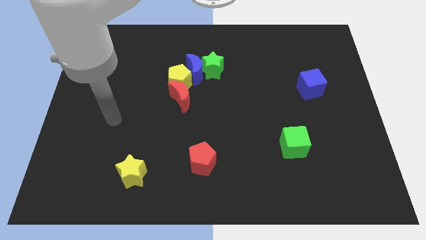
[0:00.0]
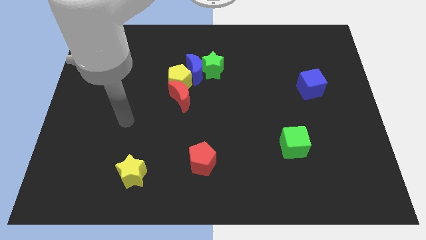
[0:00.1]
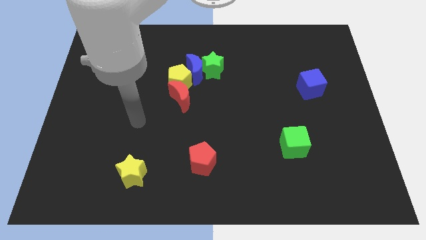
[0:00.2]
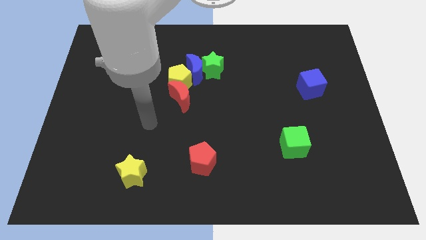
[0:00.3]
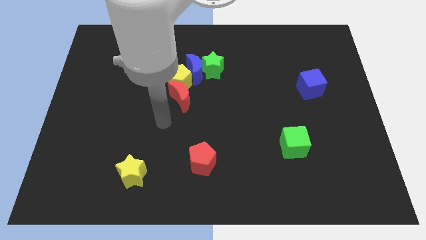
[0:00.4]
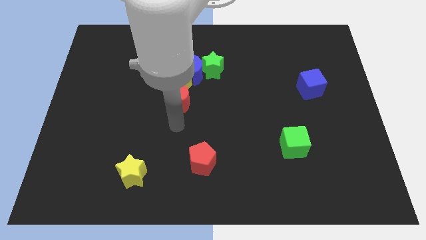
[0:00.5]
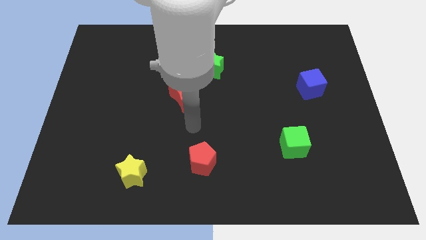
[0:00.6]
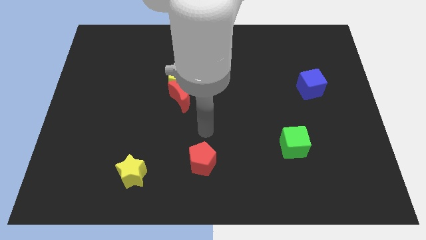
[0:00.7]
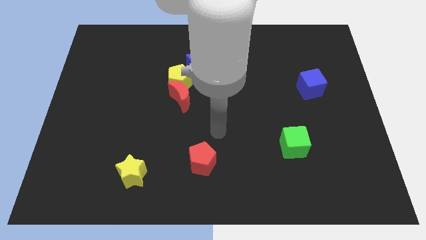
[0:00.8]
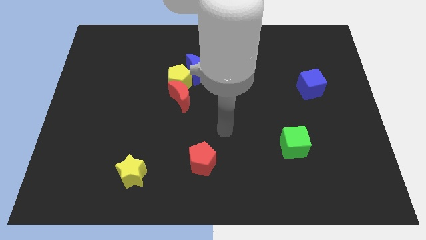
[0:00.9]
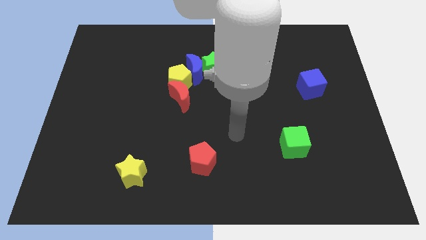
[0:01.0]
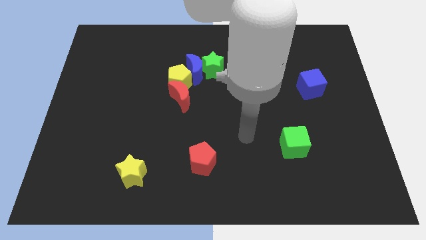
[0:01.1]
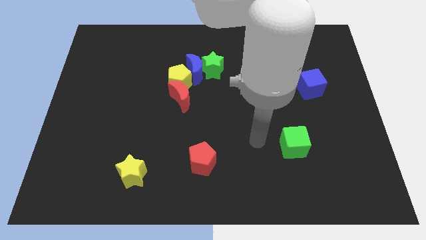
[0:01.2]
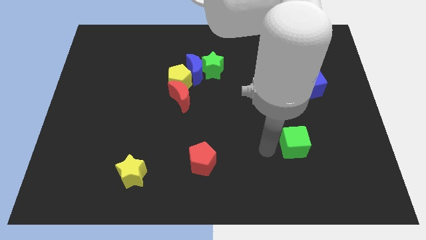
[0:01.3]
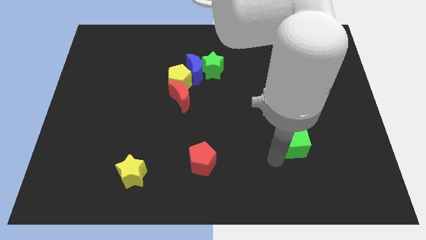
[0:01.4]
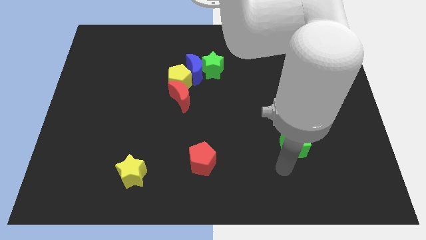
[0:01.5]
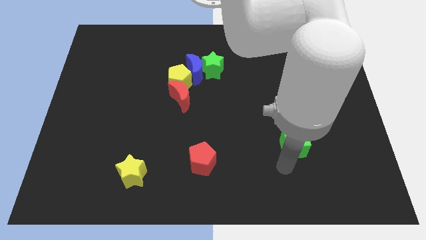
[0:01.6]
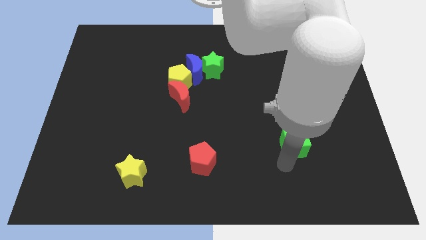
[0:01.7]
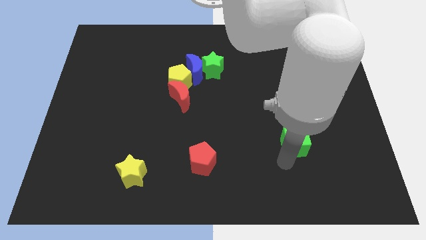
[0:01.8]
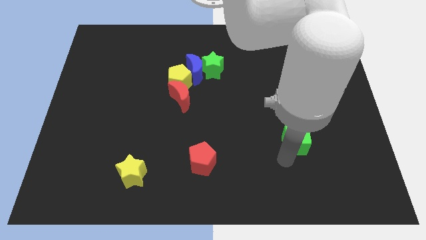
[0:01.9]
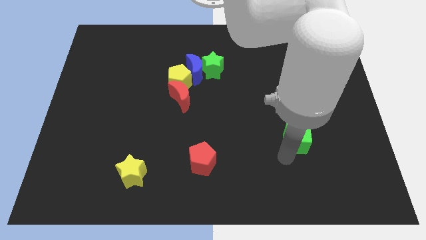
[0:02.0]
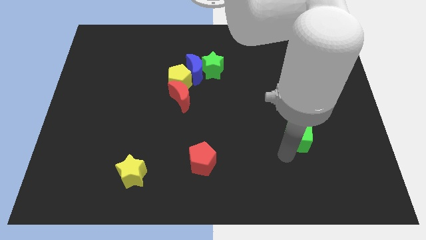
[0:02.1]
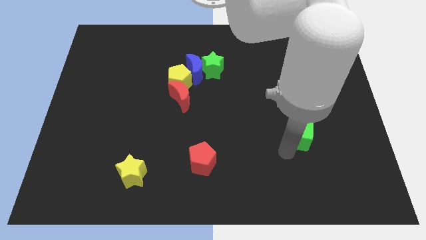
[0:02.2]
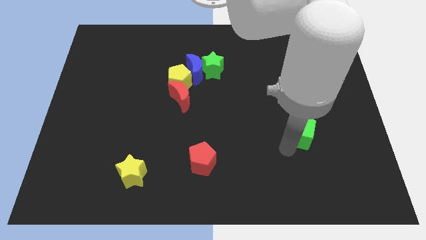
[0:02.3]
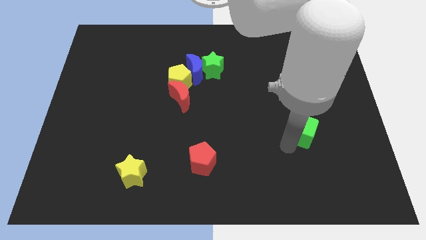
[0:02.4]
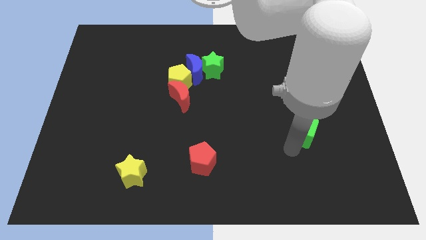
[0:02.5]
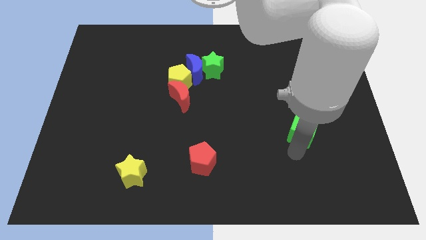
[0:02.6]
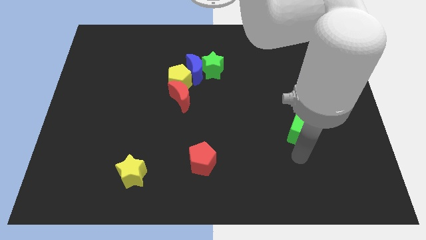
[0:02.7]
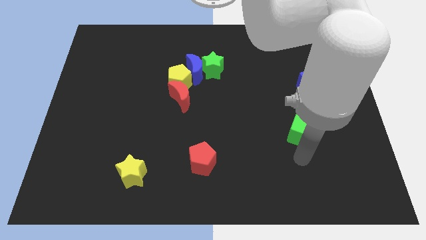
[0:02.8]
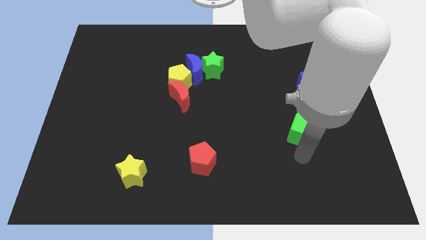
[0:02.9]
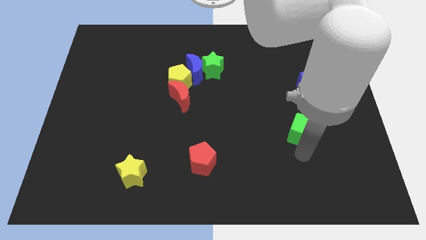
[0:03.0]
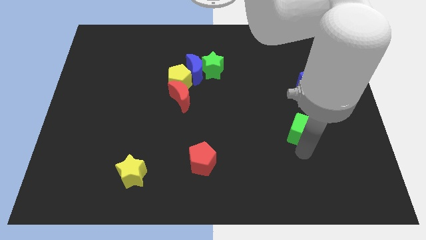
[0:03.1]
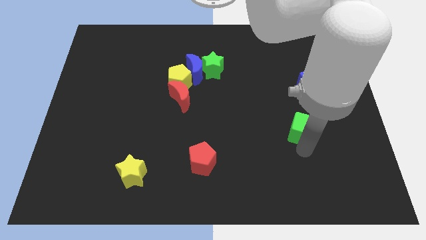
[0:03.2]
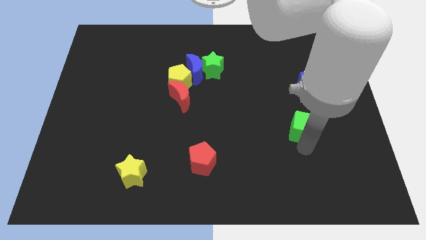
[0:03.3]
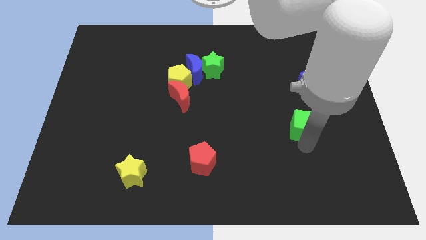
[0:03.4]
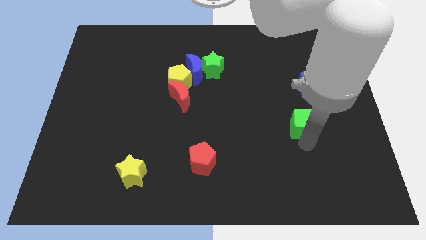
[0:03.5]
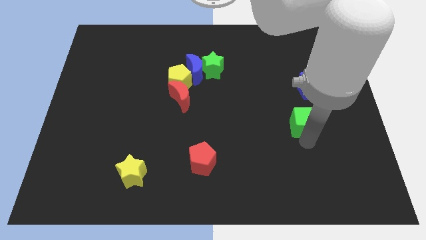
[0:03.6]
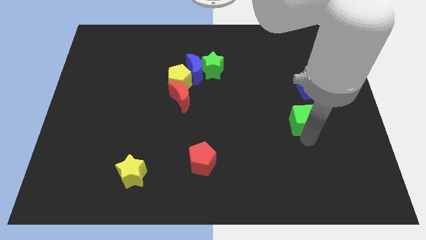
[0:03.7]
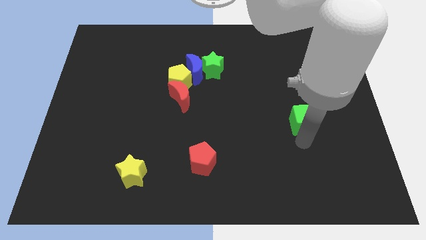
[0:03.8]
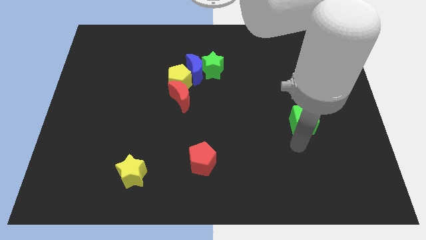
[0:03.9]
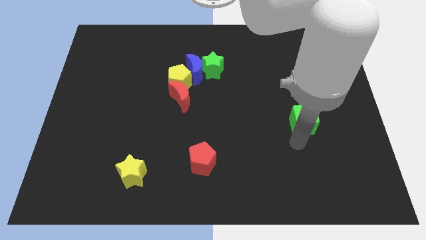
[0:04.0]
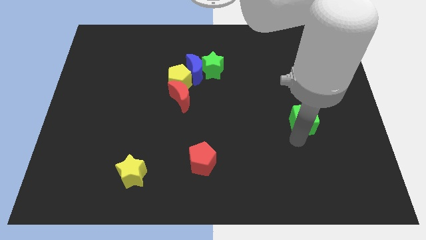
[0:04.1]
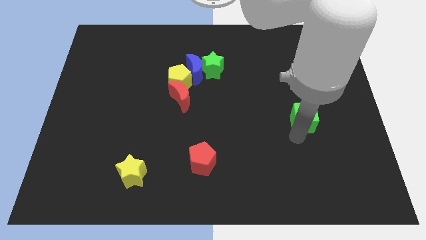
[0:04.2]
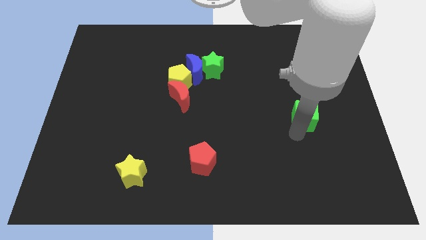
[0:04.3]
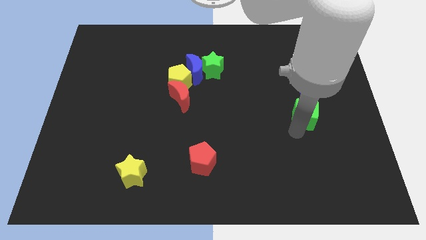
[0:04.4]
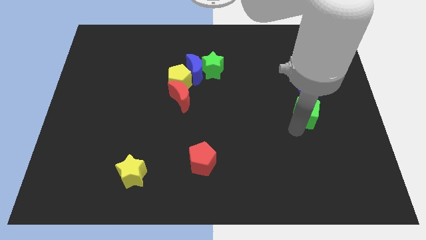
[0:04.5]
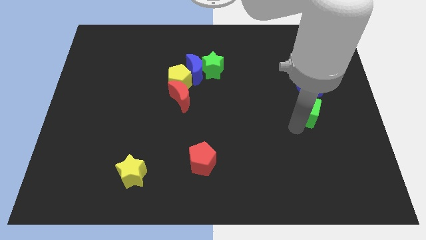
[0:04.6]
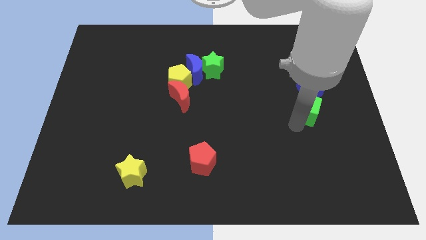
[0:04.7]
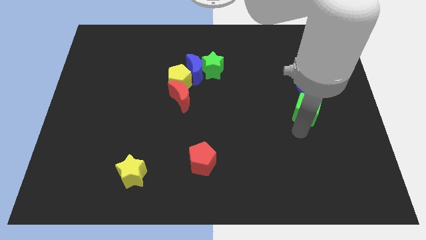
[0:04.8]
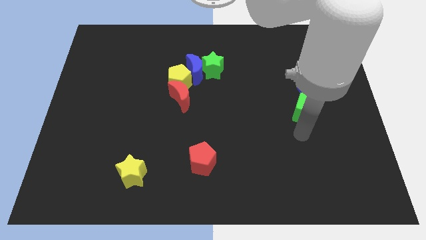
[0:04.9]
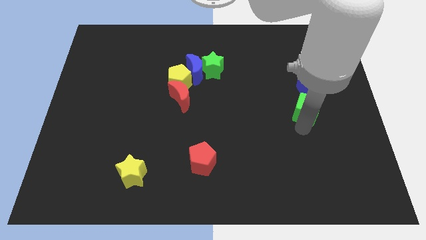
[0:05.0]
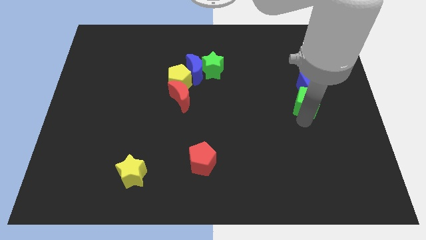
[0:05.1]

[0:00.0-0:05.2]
move the green cube towards the blue cube

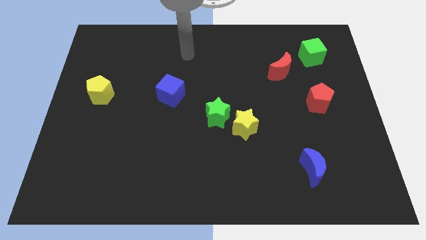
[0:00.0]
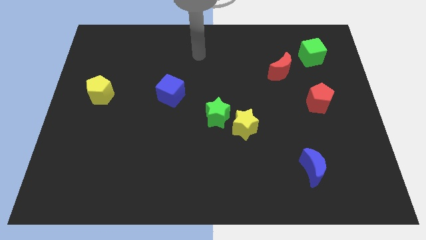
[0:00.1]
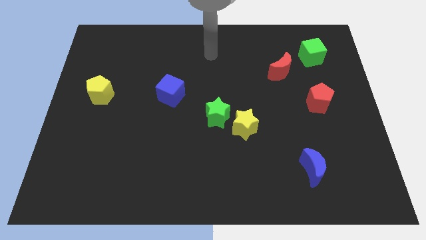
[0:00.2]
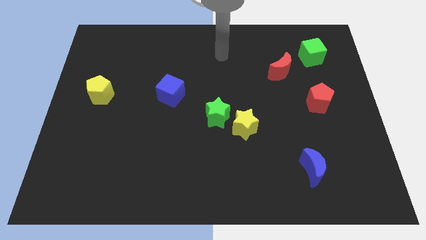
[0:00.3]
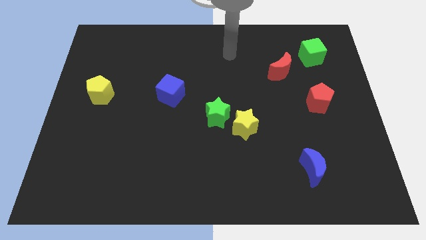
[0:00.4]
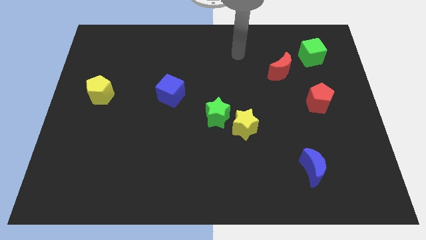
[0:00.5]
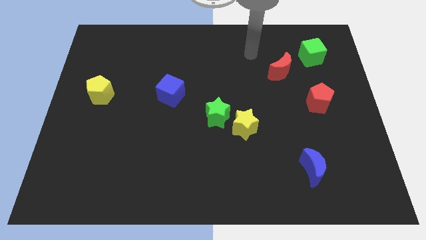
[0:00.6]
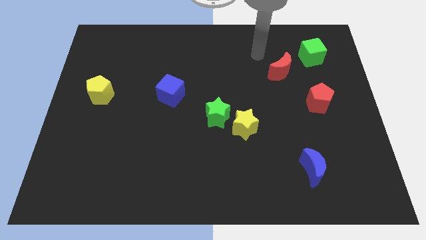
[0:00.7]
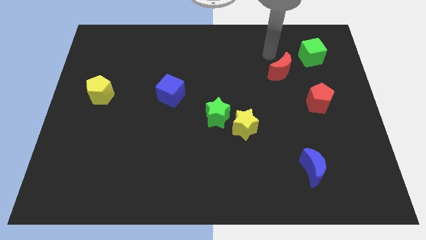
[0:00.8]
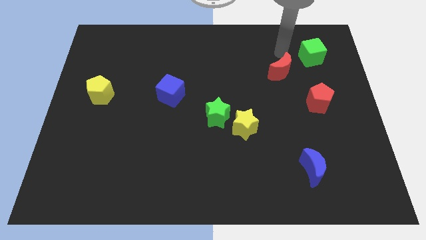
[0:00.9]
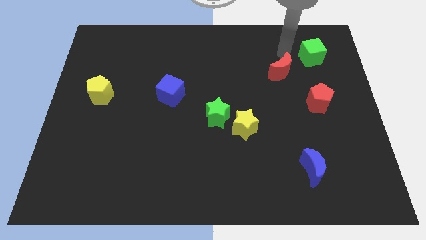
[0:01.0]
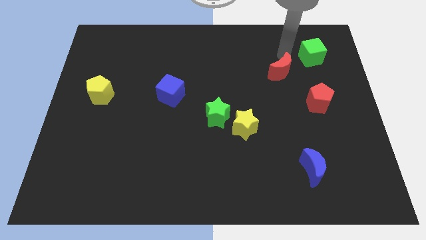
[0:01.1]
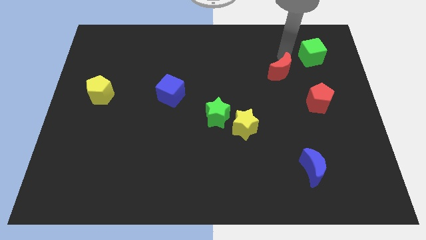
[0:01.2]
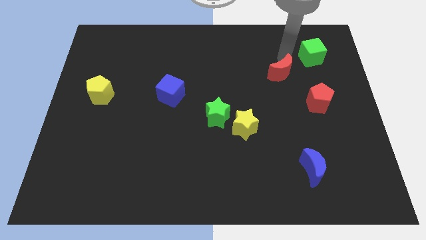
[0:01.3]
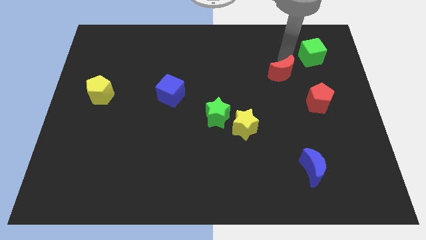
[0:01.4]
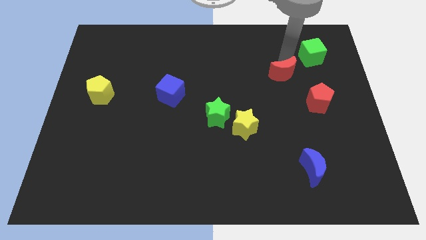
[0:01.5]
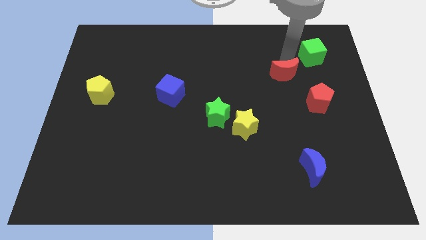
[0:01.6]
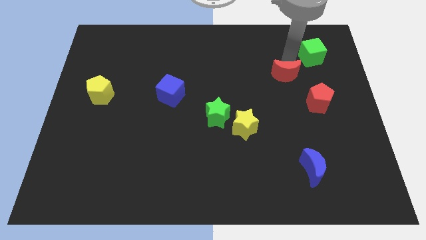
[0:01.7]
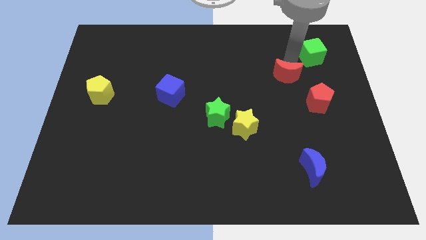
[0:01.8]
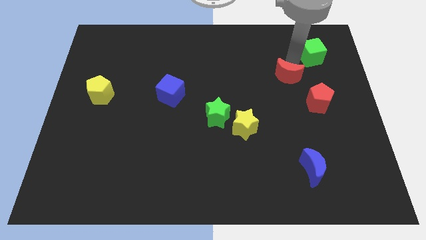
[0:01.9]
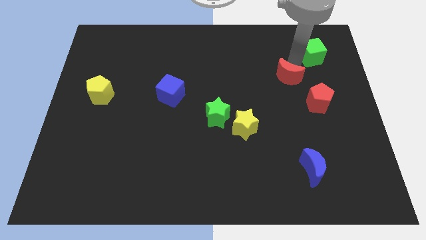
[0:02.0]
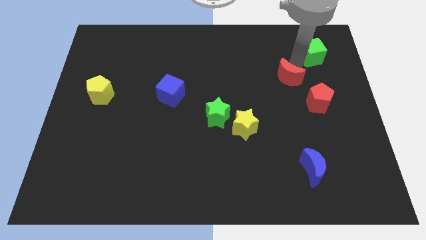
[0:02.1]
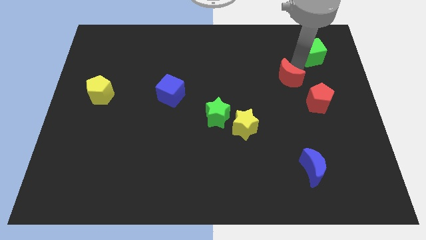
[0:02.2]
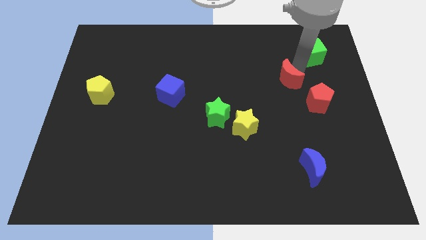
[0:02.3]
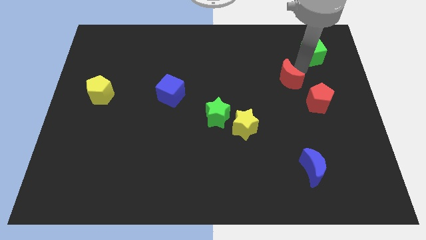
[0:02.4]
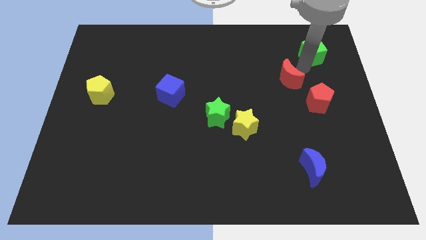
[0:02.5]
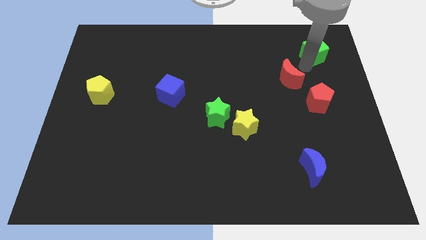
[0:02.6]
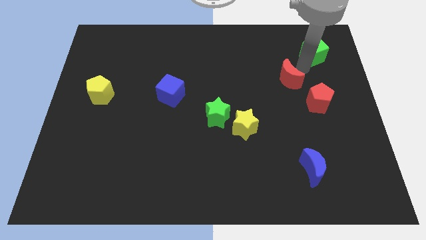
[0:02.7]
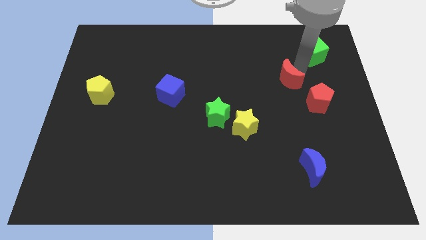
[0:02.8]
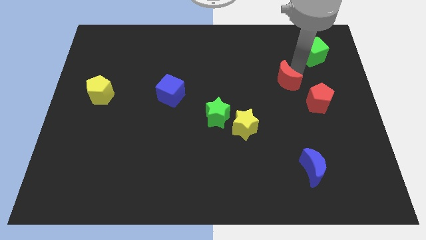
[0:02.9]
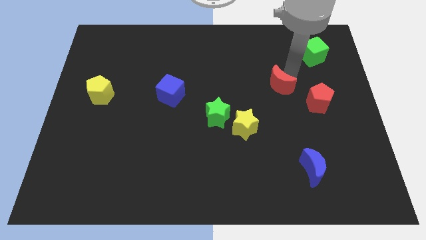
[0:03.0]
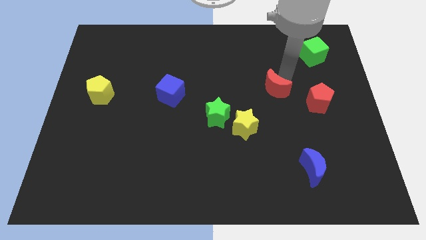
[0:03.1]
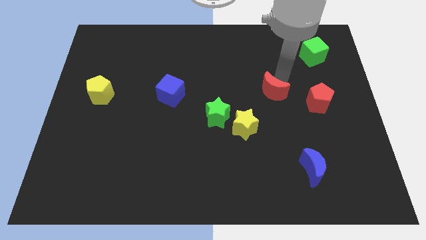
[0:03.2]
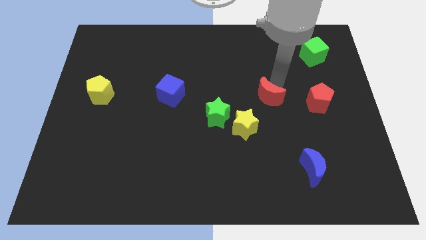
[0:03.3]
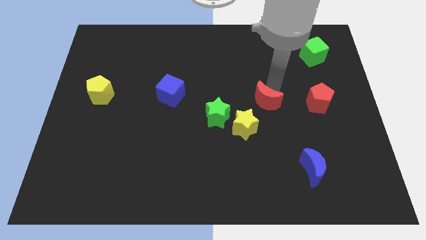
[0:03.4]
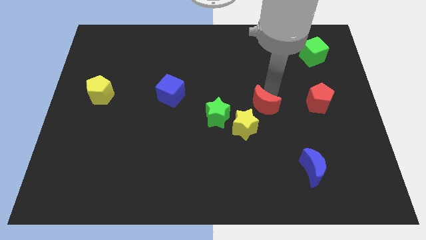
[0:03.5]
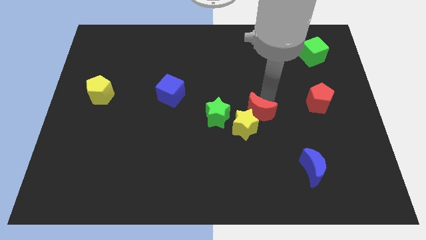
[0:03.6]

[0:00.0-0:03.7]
move the red moon to the yellow star
